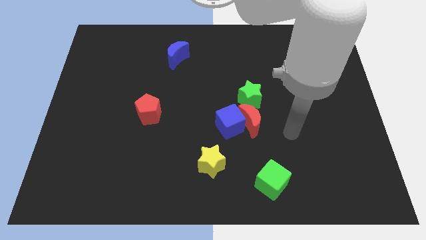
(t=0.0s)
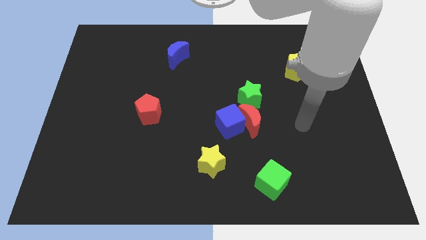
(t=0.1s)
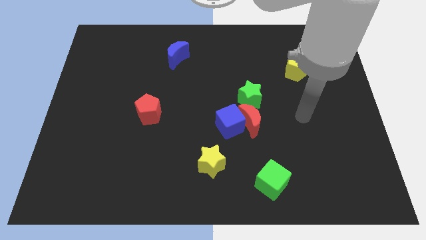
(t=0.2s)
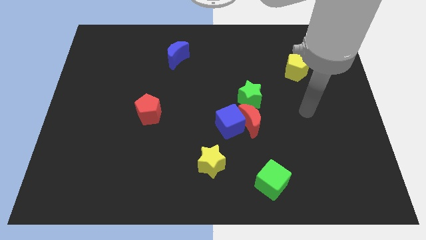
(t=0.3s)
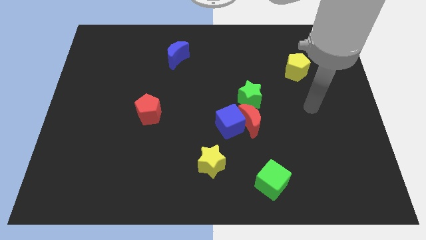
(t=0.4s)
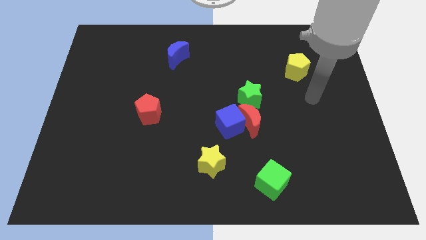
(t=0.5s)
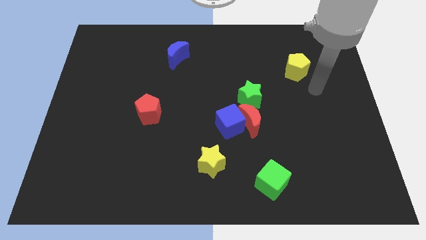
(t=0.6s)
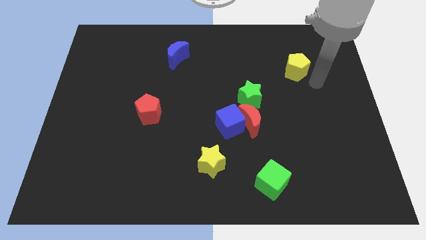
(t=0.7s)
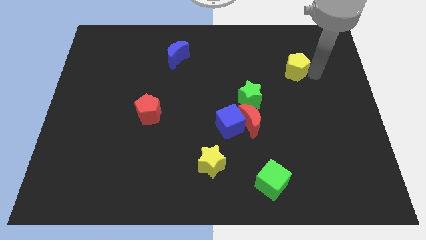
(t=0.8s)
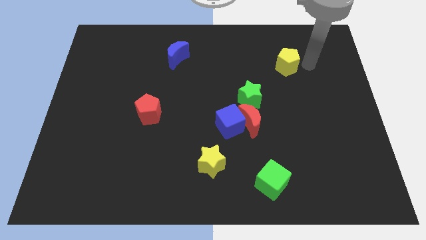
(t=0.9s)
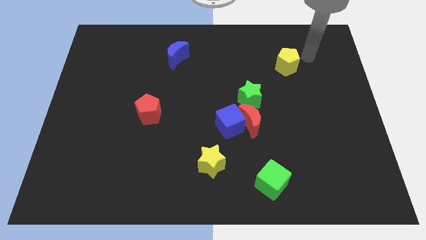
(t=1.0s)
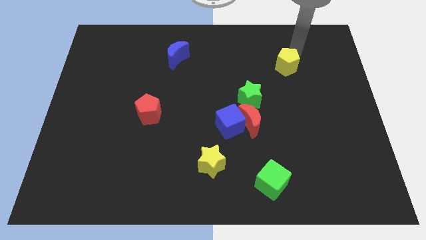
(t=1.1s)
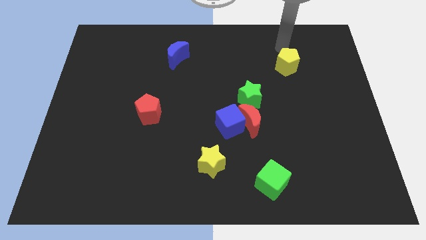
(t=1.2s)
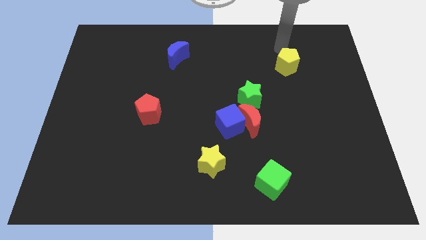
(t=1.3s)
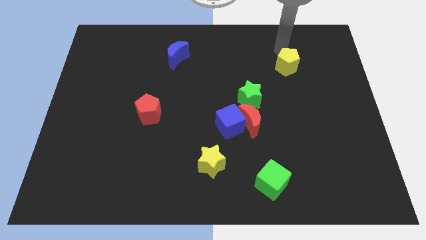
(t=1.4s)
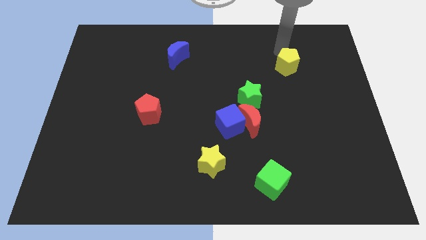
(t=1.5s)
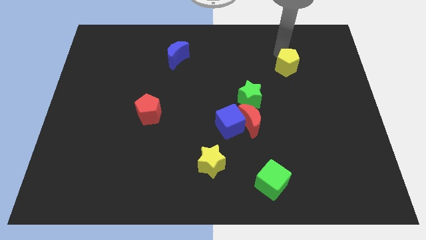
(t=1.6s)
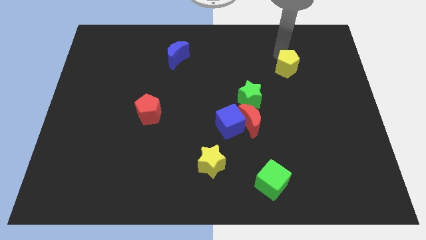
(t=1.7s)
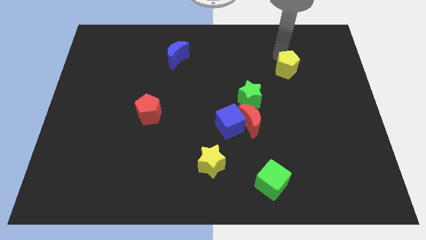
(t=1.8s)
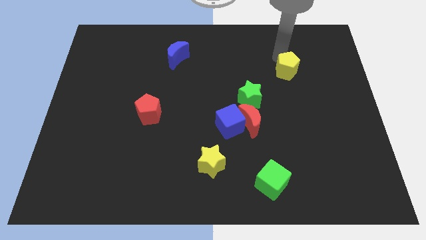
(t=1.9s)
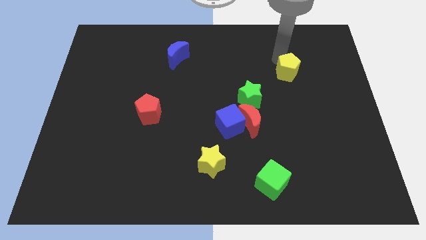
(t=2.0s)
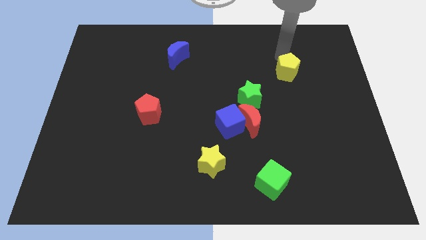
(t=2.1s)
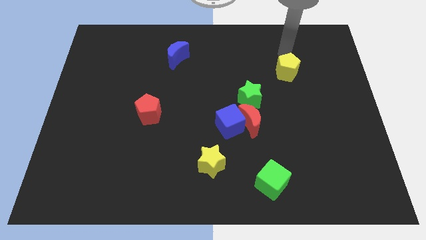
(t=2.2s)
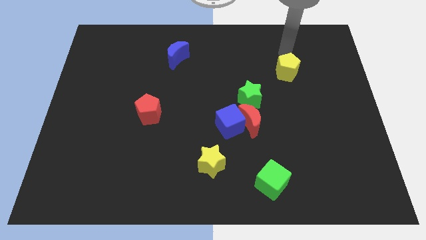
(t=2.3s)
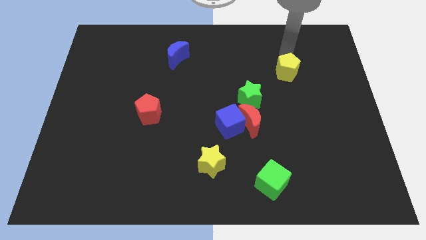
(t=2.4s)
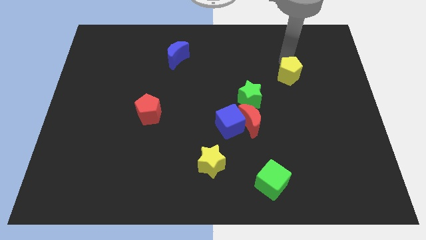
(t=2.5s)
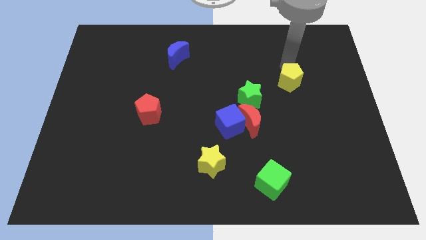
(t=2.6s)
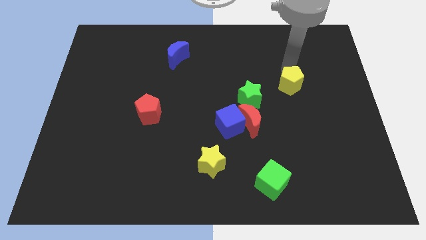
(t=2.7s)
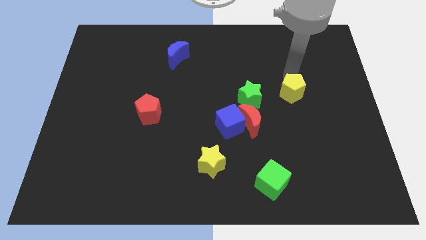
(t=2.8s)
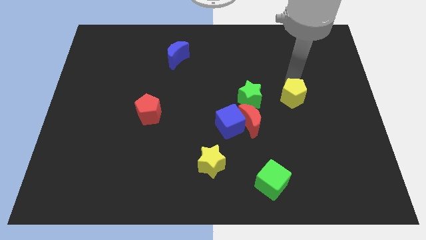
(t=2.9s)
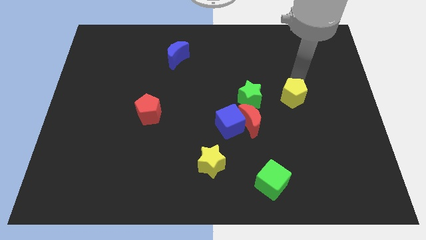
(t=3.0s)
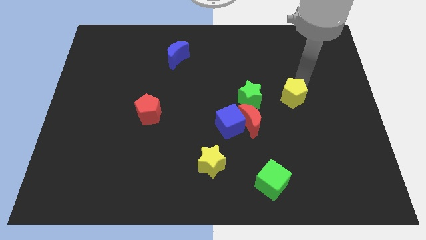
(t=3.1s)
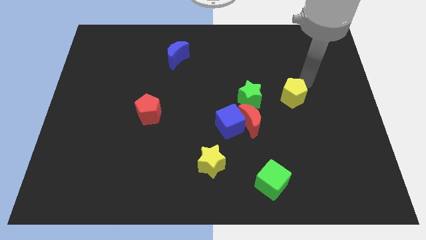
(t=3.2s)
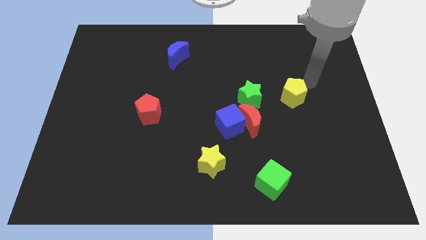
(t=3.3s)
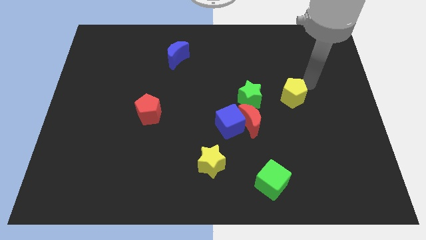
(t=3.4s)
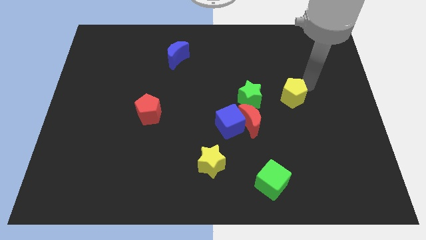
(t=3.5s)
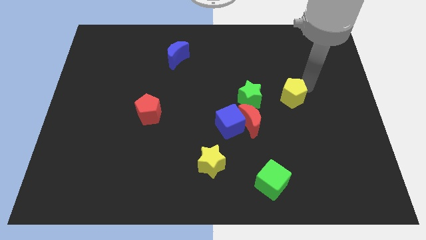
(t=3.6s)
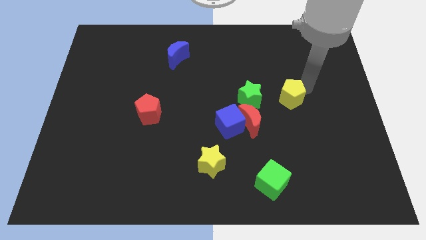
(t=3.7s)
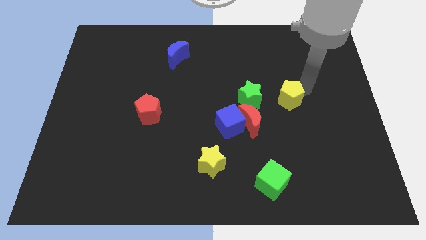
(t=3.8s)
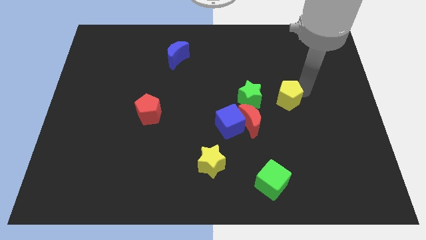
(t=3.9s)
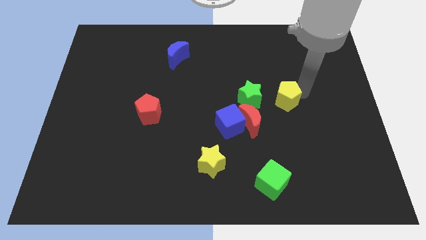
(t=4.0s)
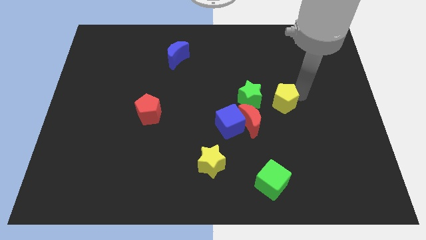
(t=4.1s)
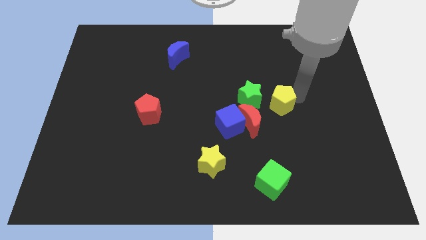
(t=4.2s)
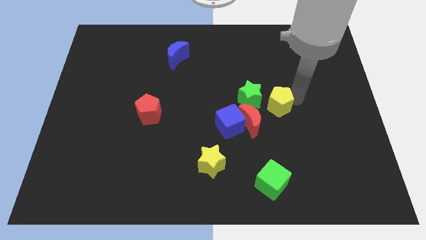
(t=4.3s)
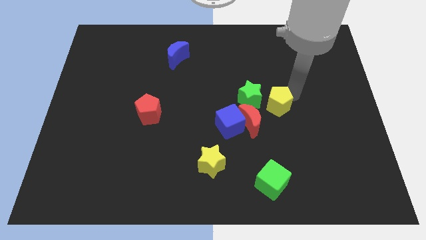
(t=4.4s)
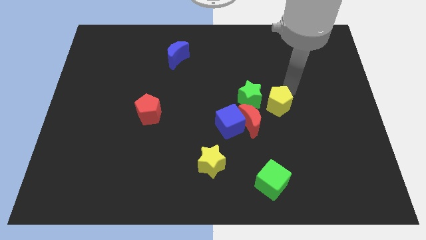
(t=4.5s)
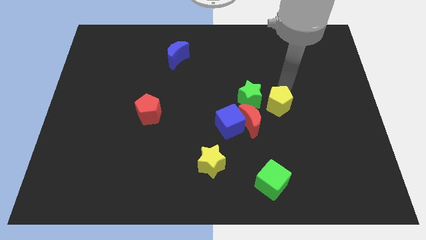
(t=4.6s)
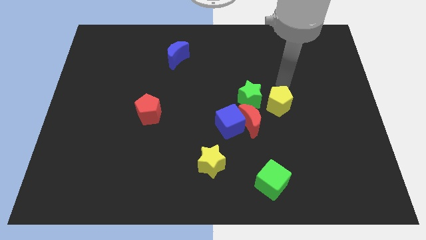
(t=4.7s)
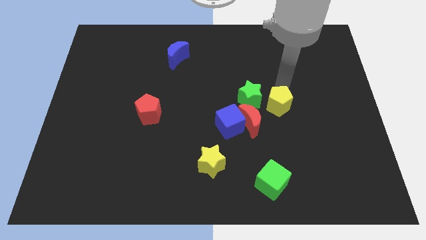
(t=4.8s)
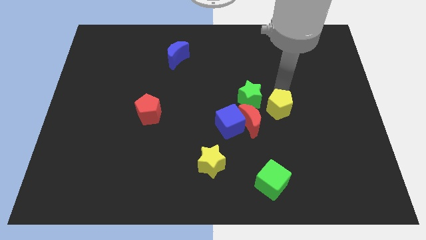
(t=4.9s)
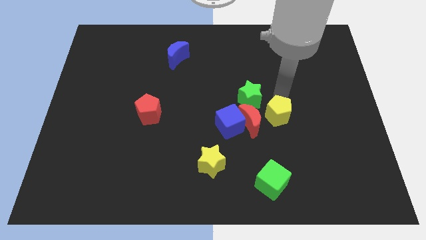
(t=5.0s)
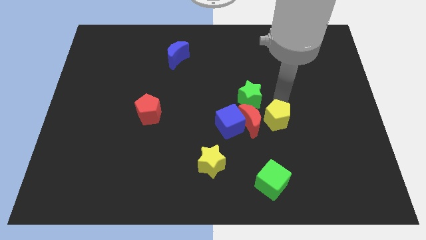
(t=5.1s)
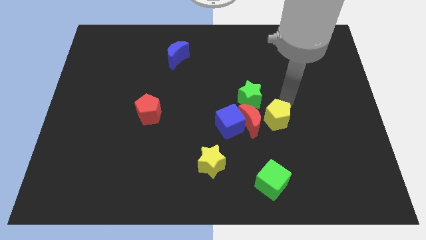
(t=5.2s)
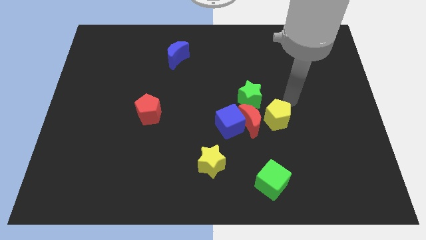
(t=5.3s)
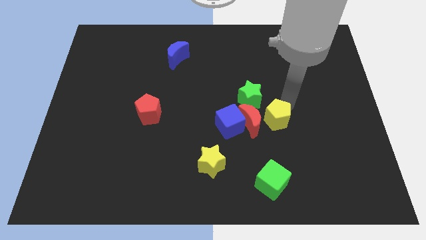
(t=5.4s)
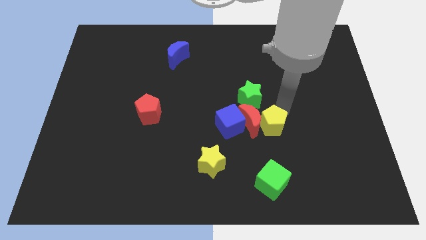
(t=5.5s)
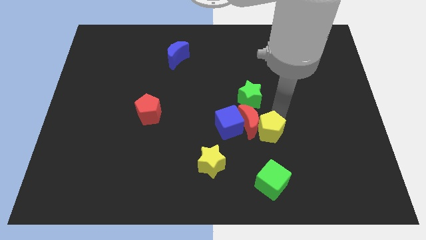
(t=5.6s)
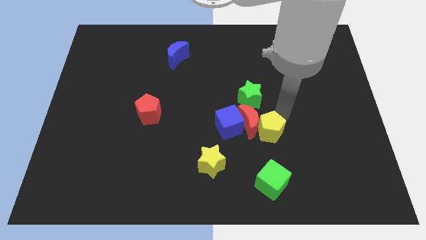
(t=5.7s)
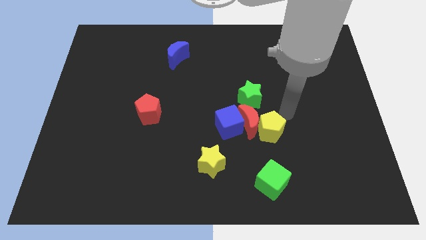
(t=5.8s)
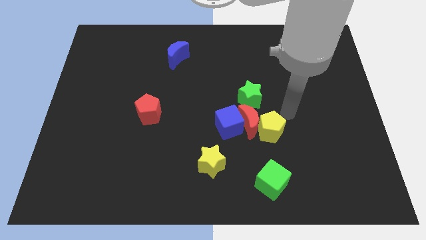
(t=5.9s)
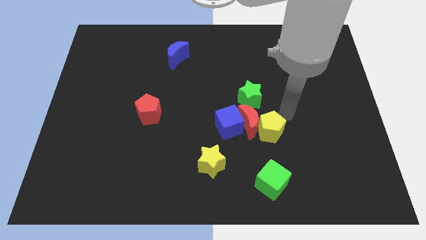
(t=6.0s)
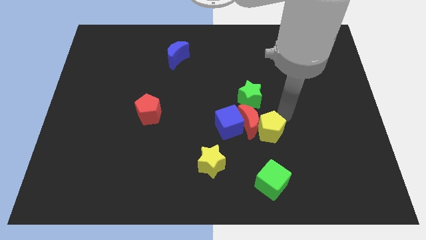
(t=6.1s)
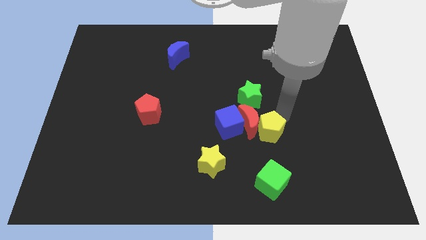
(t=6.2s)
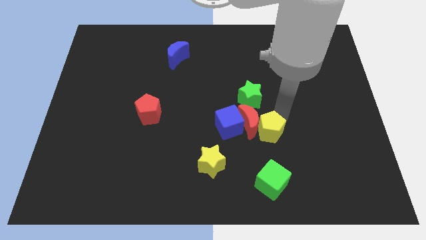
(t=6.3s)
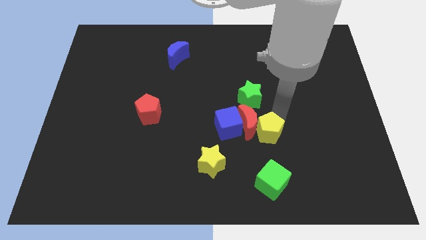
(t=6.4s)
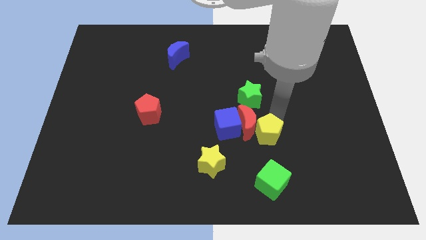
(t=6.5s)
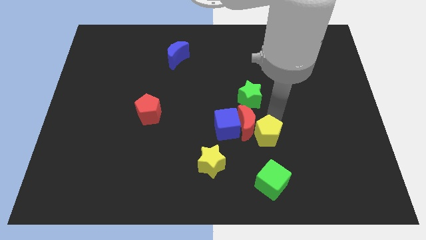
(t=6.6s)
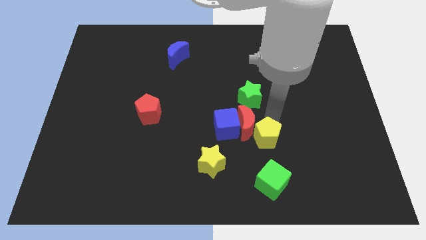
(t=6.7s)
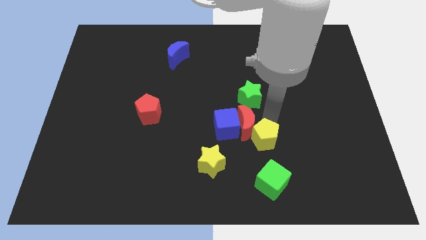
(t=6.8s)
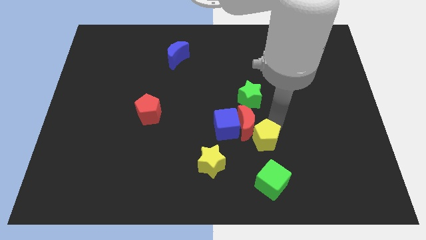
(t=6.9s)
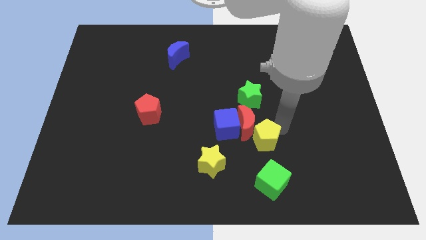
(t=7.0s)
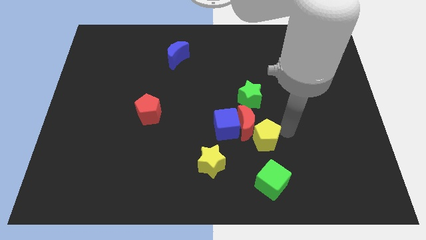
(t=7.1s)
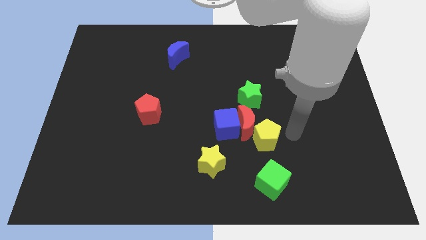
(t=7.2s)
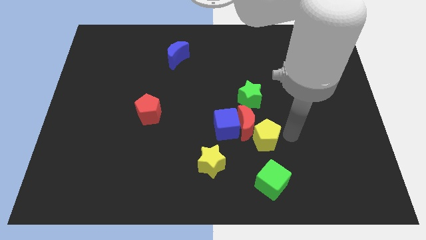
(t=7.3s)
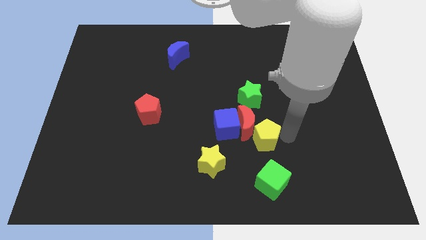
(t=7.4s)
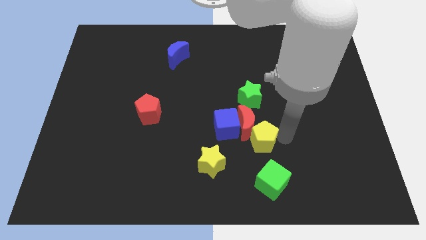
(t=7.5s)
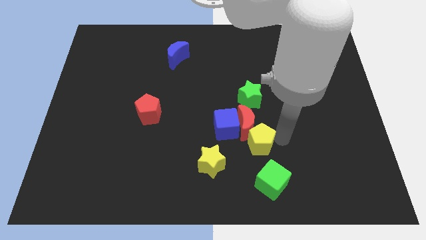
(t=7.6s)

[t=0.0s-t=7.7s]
put the yellow pentagon diagonally up and to the right of the yellow star
